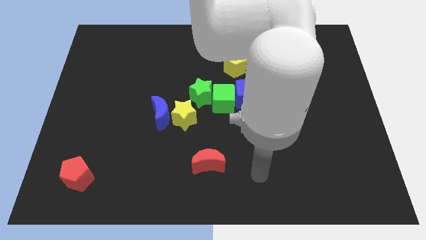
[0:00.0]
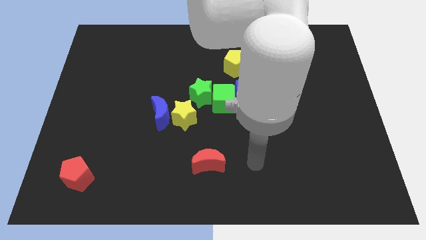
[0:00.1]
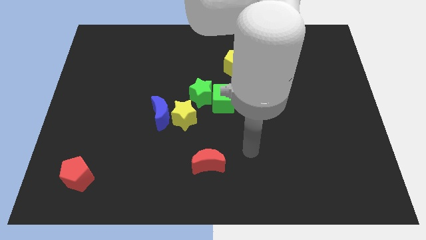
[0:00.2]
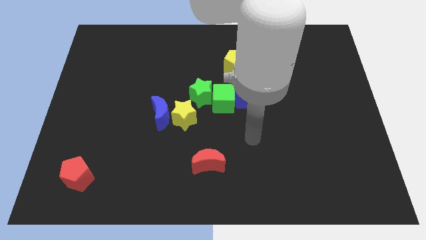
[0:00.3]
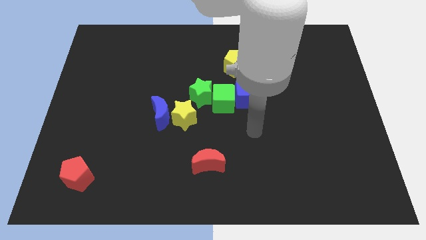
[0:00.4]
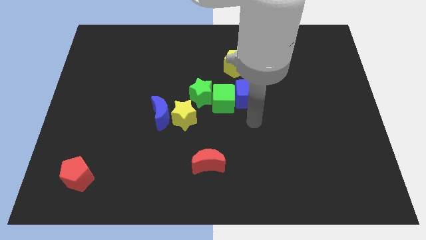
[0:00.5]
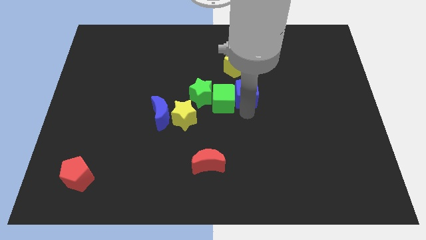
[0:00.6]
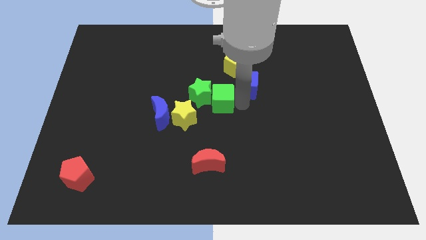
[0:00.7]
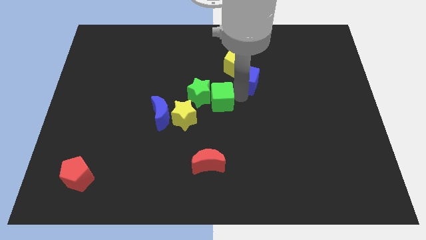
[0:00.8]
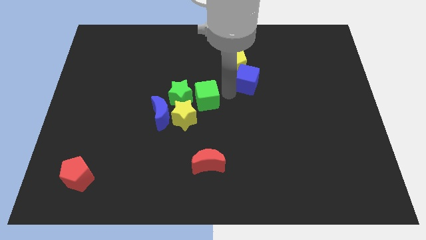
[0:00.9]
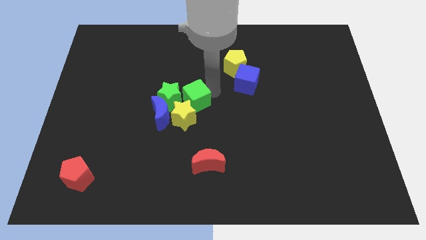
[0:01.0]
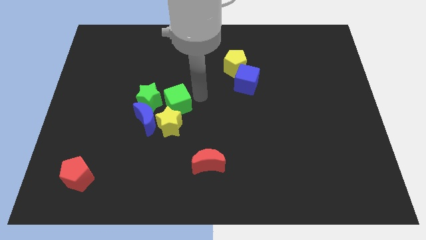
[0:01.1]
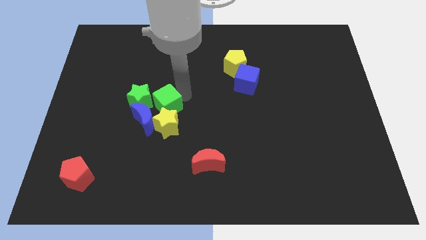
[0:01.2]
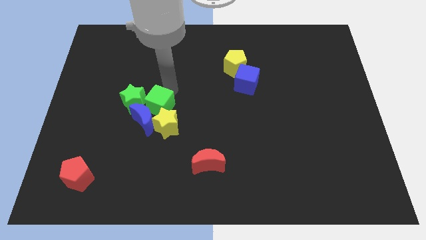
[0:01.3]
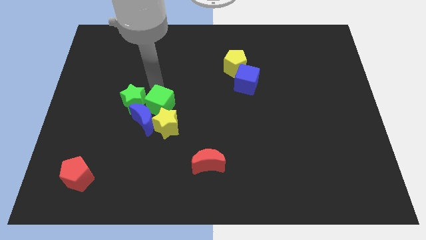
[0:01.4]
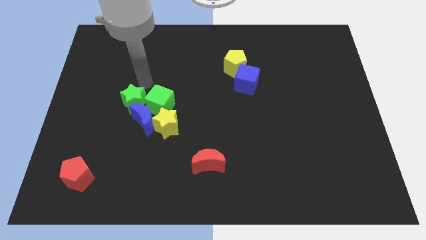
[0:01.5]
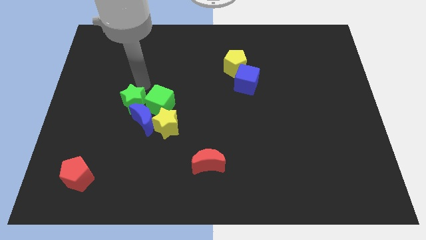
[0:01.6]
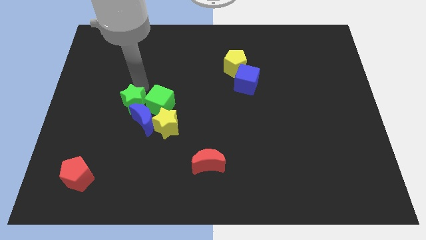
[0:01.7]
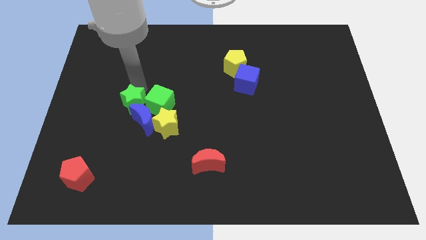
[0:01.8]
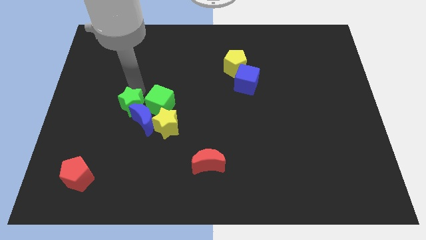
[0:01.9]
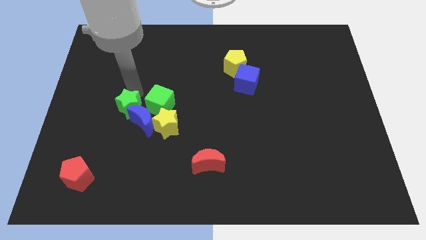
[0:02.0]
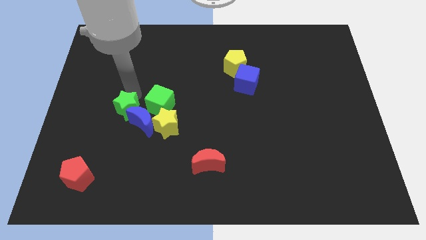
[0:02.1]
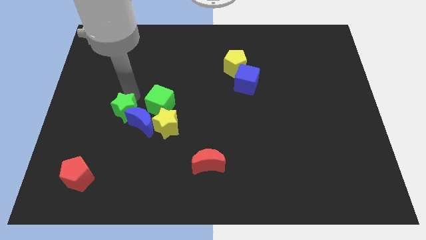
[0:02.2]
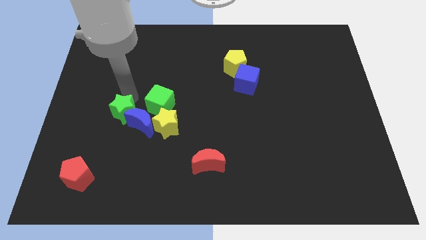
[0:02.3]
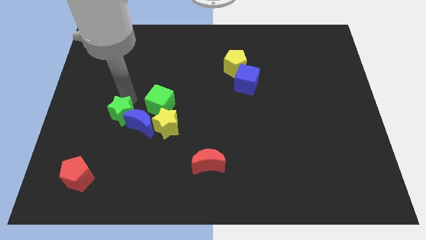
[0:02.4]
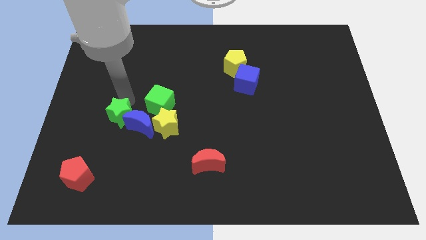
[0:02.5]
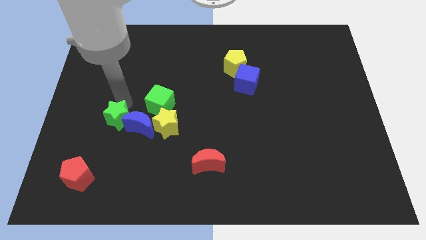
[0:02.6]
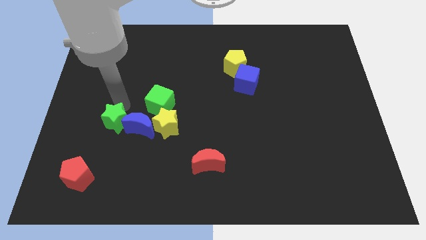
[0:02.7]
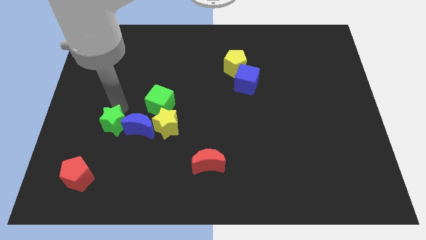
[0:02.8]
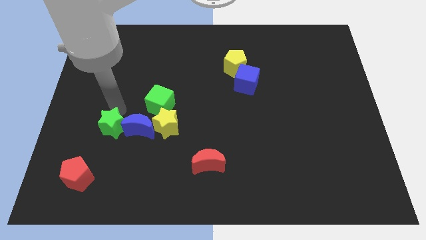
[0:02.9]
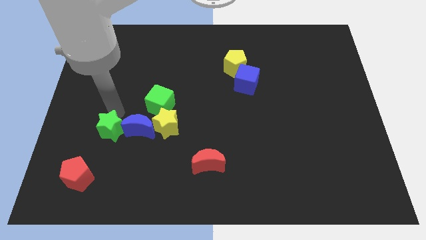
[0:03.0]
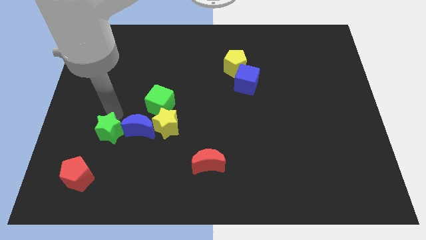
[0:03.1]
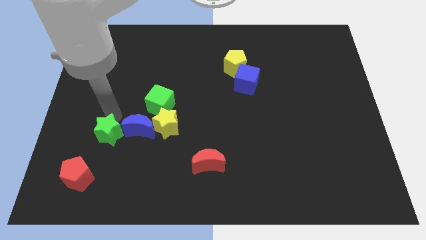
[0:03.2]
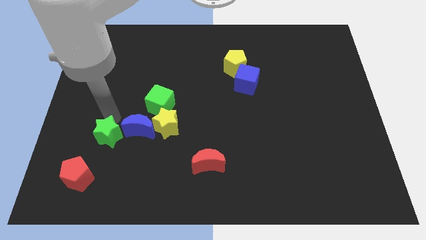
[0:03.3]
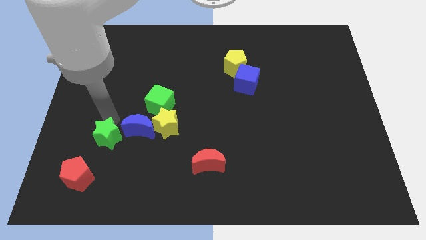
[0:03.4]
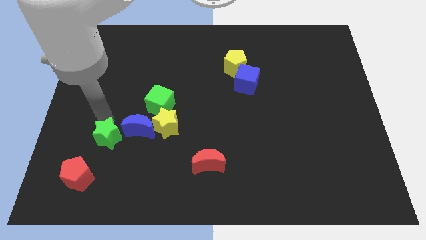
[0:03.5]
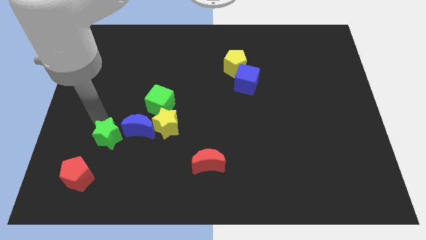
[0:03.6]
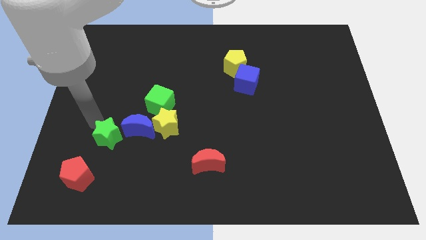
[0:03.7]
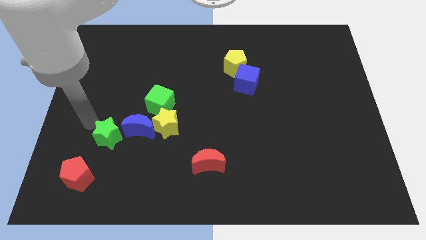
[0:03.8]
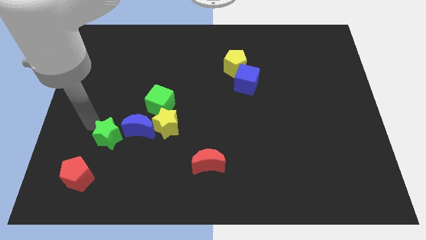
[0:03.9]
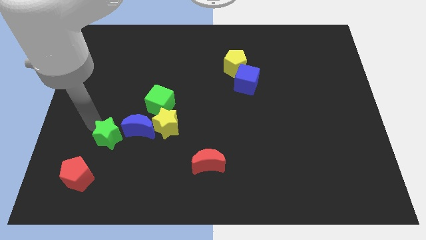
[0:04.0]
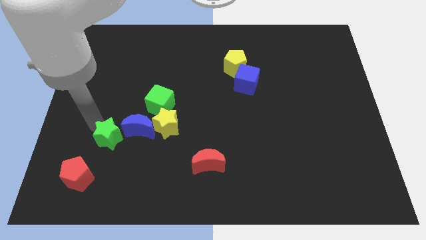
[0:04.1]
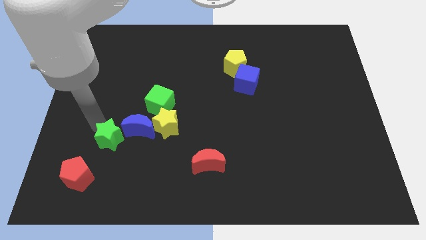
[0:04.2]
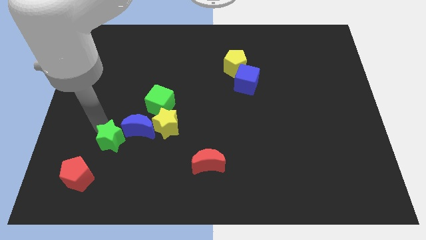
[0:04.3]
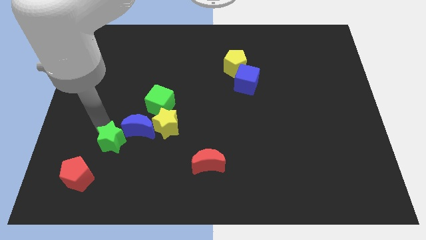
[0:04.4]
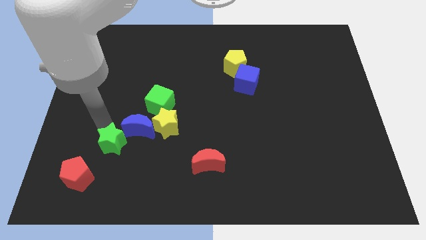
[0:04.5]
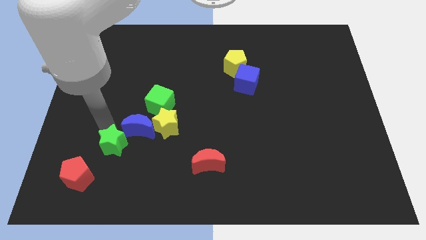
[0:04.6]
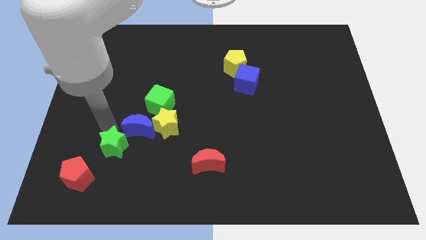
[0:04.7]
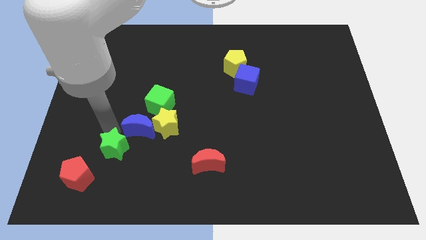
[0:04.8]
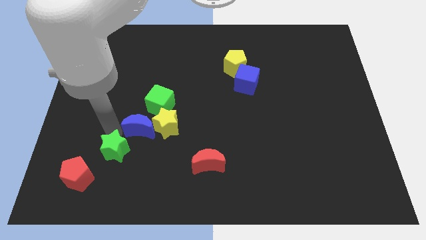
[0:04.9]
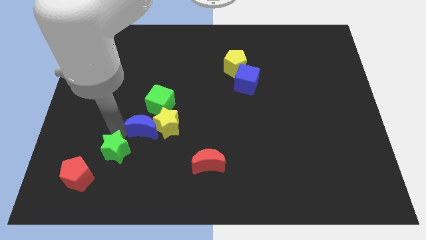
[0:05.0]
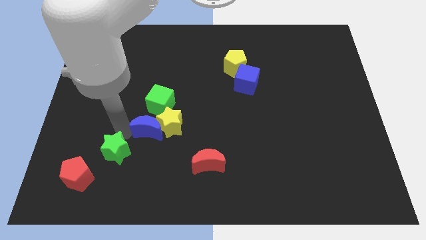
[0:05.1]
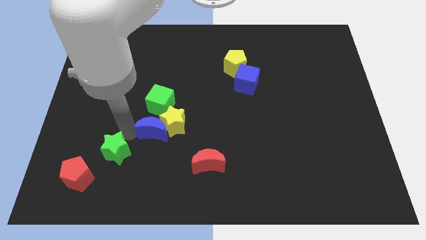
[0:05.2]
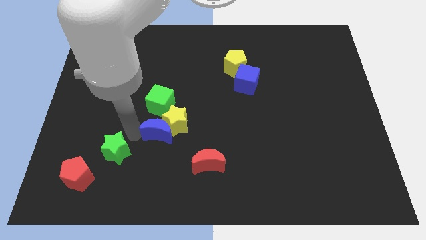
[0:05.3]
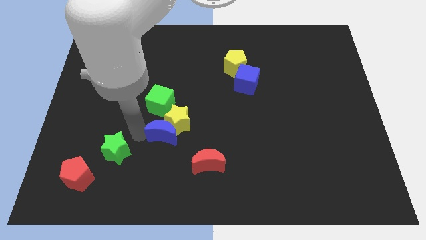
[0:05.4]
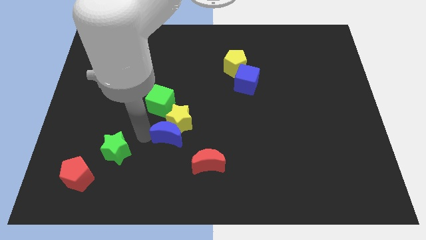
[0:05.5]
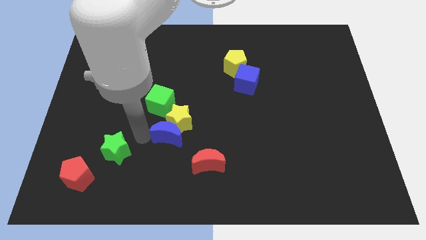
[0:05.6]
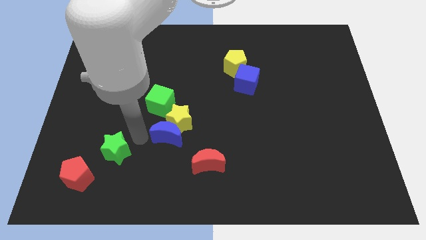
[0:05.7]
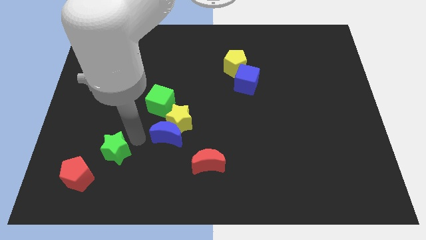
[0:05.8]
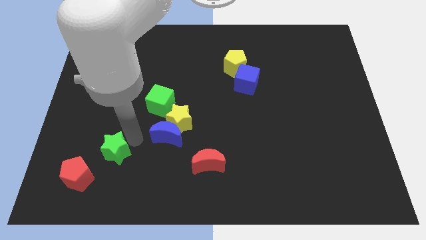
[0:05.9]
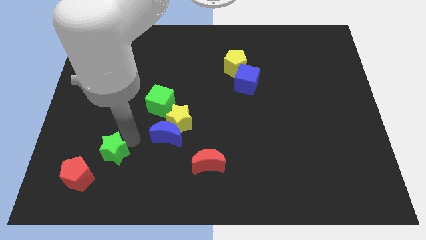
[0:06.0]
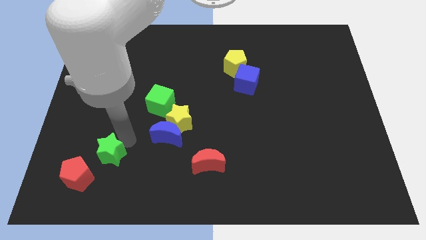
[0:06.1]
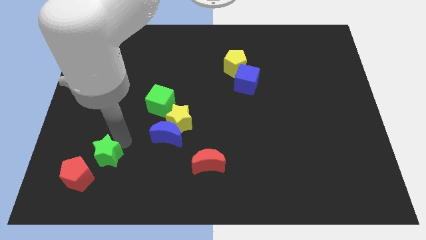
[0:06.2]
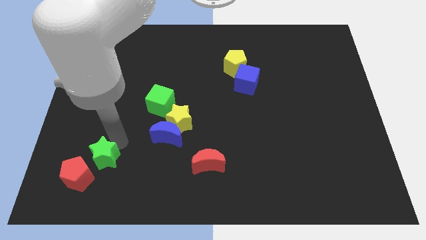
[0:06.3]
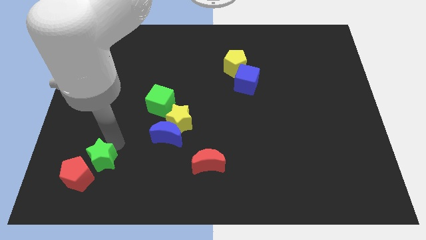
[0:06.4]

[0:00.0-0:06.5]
push the green star towards the red pentagon
